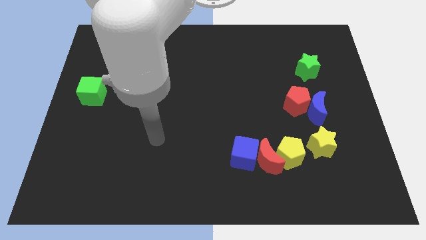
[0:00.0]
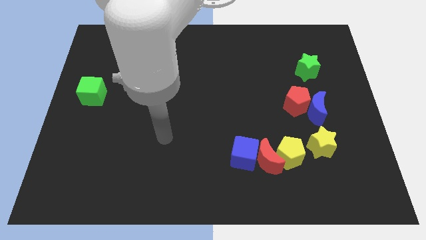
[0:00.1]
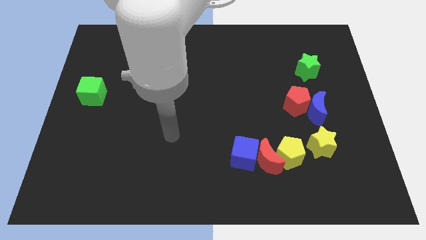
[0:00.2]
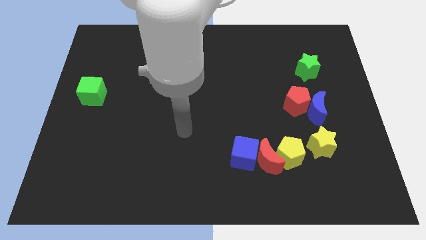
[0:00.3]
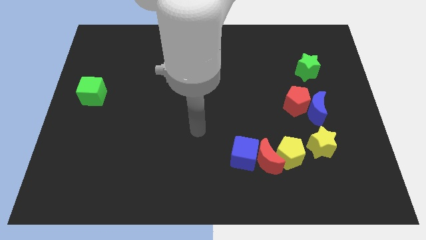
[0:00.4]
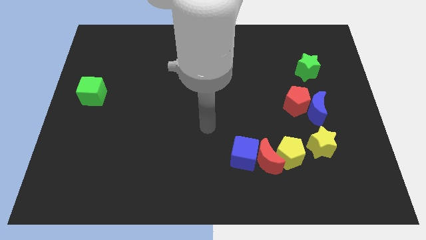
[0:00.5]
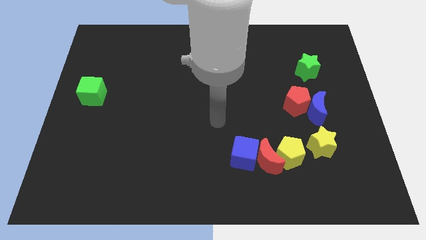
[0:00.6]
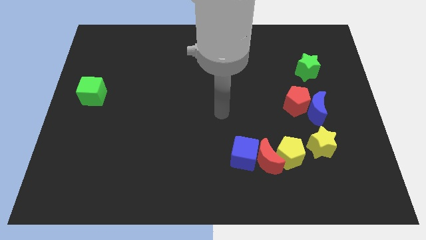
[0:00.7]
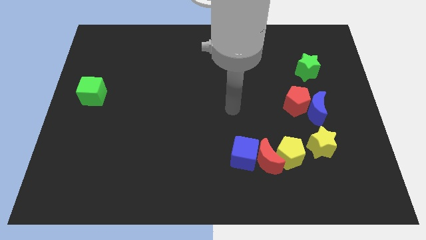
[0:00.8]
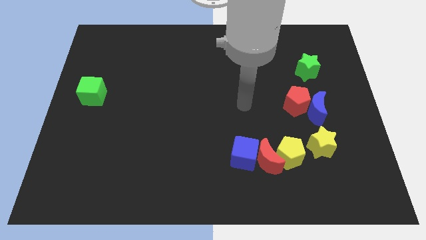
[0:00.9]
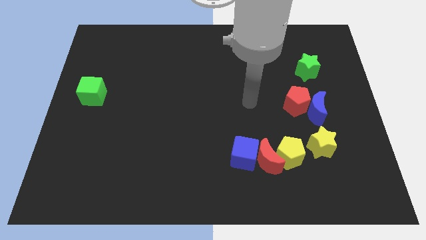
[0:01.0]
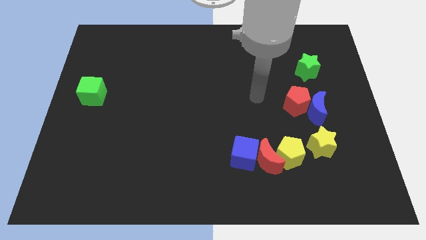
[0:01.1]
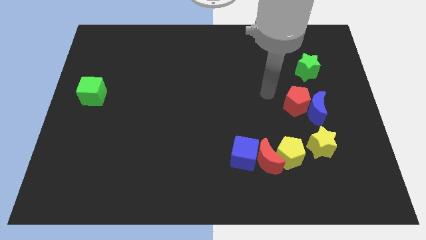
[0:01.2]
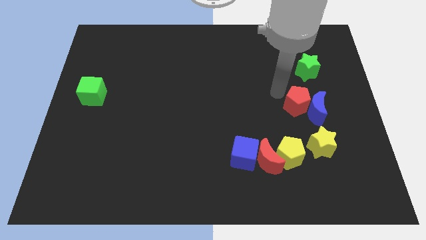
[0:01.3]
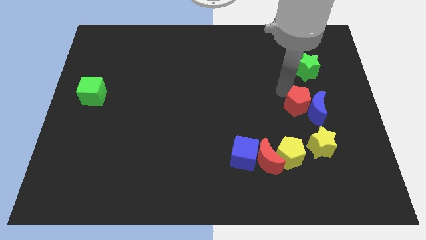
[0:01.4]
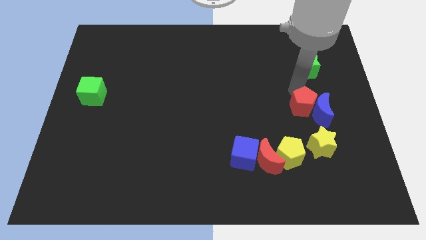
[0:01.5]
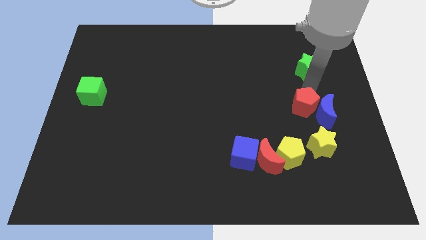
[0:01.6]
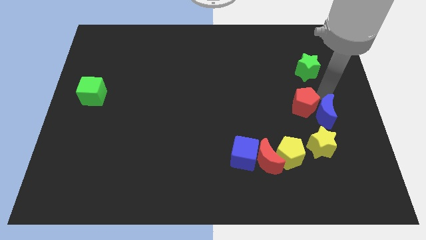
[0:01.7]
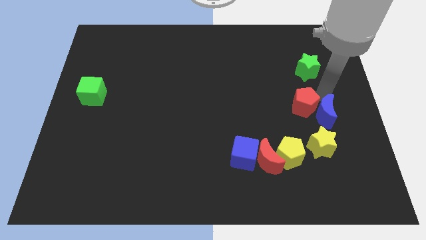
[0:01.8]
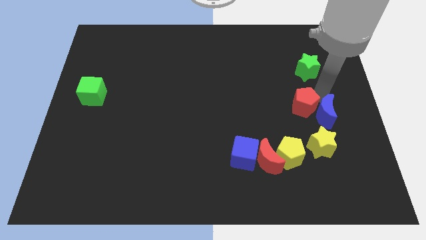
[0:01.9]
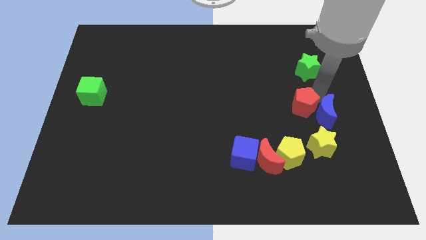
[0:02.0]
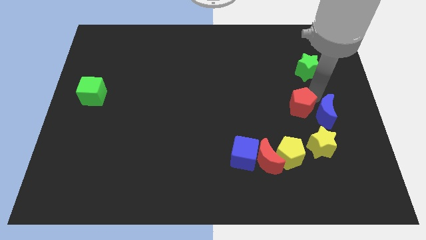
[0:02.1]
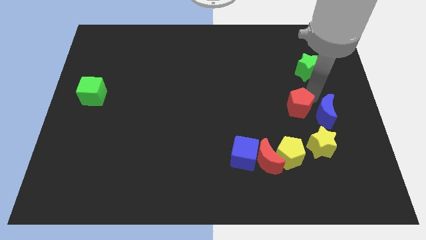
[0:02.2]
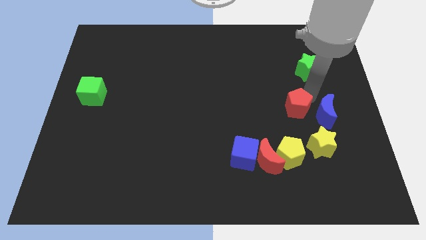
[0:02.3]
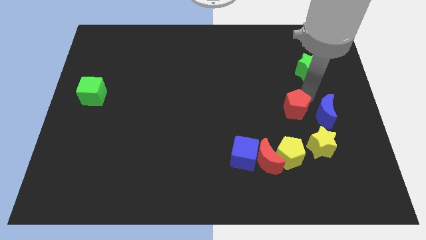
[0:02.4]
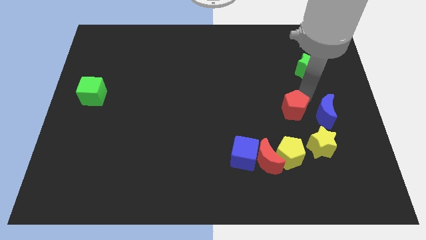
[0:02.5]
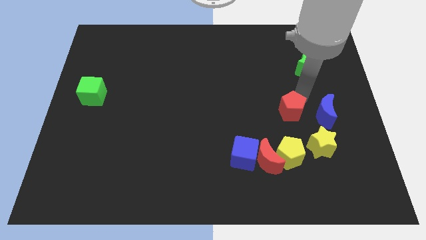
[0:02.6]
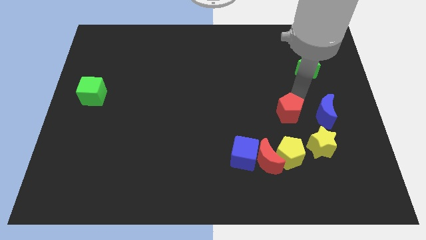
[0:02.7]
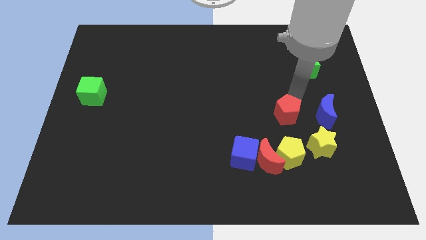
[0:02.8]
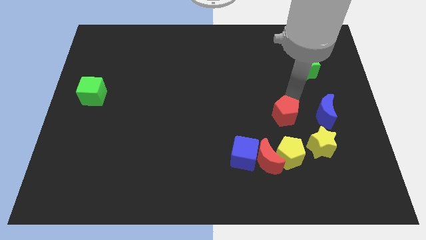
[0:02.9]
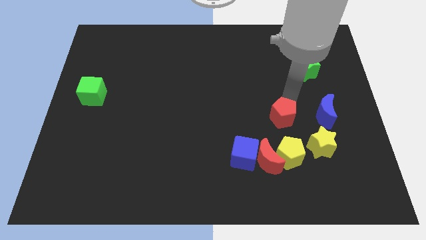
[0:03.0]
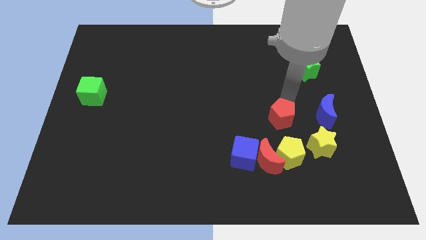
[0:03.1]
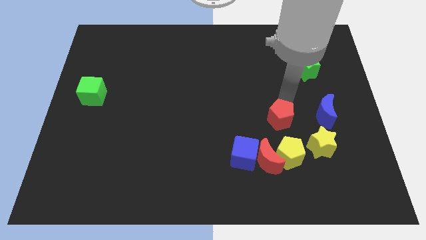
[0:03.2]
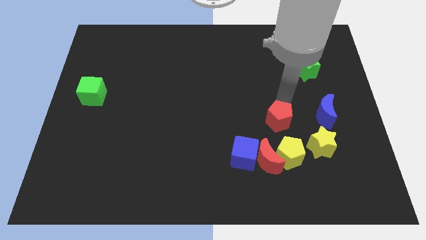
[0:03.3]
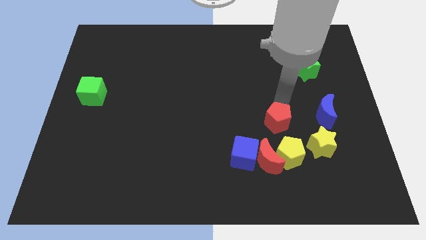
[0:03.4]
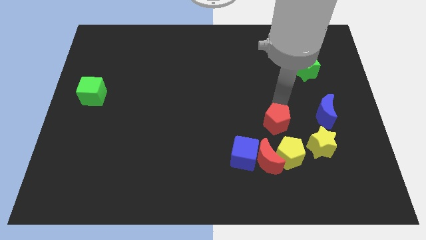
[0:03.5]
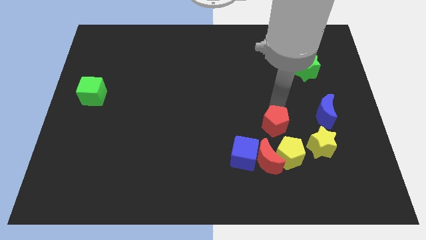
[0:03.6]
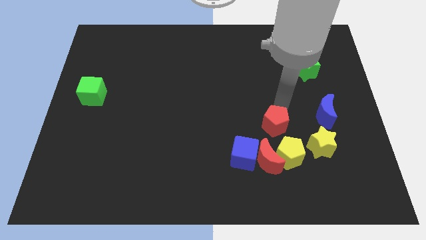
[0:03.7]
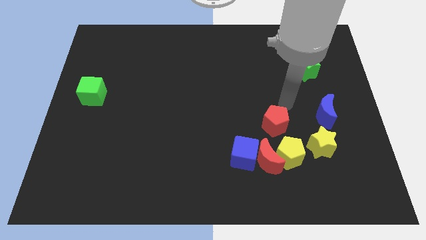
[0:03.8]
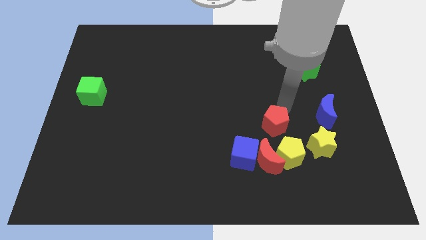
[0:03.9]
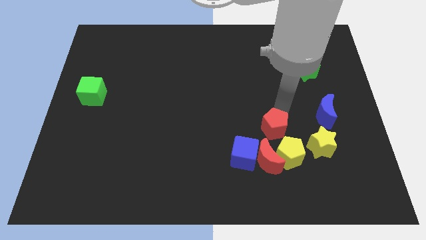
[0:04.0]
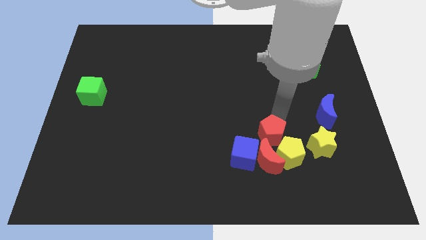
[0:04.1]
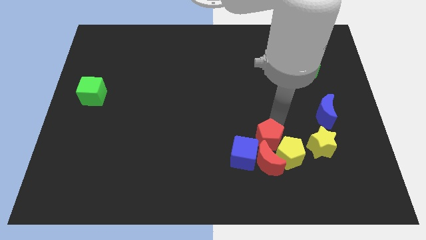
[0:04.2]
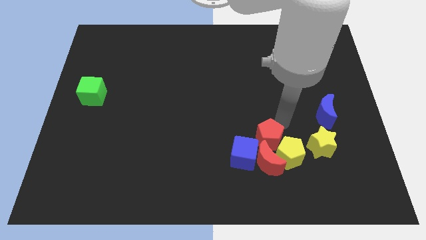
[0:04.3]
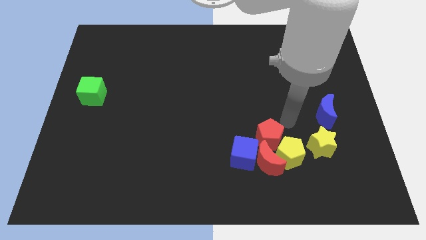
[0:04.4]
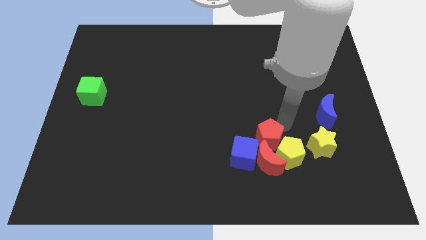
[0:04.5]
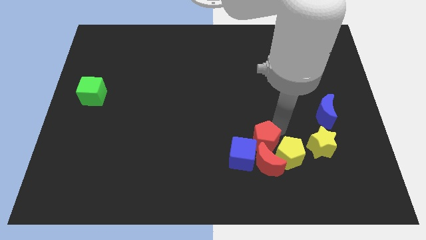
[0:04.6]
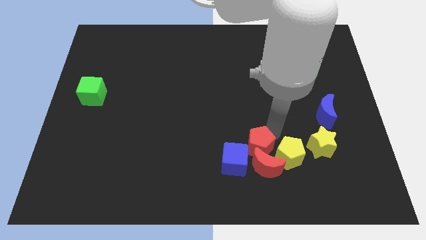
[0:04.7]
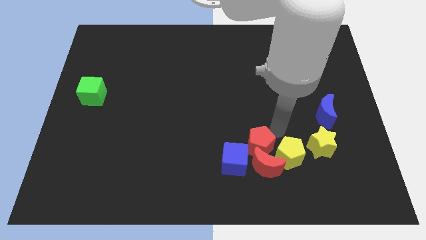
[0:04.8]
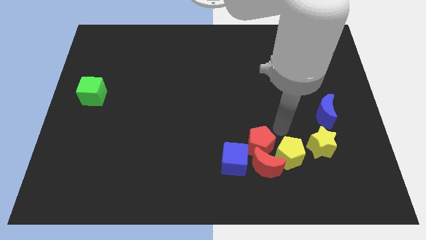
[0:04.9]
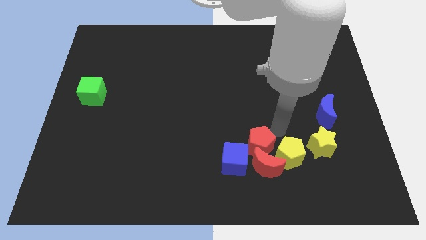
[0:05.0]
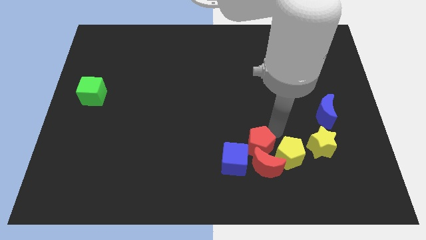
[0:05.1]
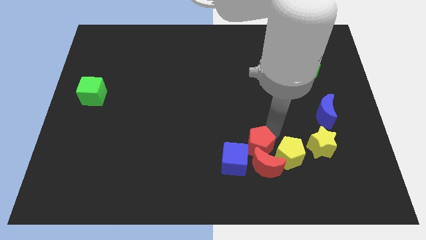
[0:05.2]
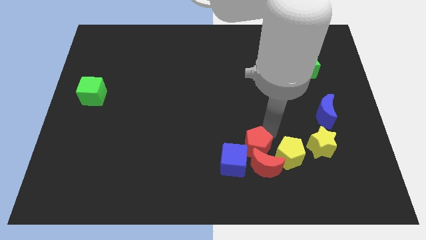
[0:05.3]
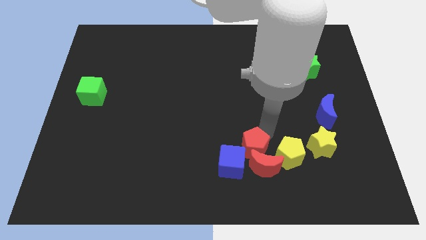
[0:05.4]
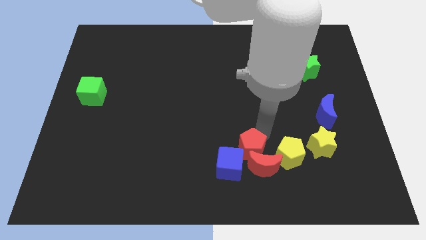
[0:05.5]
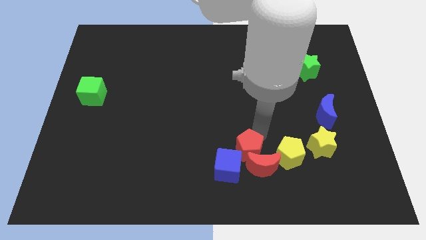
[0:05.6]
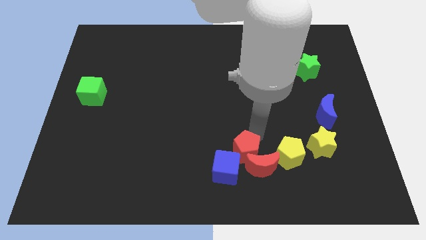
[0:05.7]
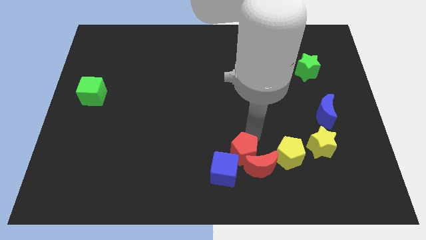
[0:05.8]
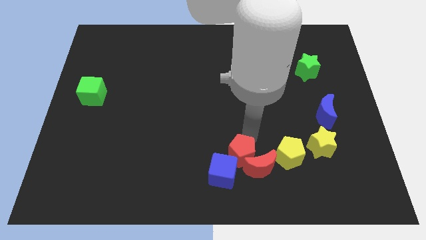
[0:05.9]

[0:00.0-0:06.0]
put the red pentagon next to the blue cube

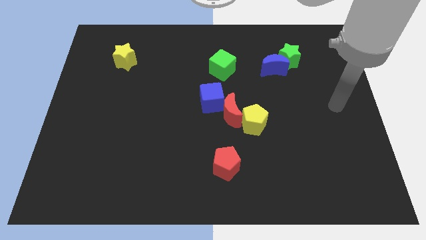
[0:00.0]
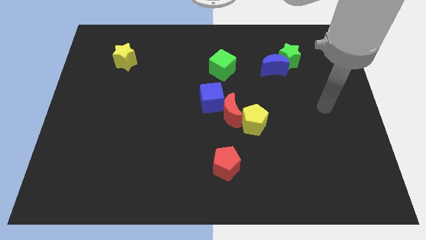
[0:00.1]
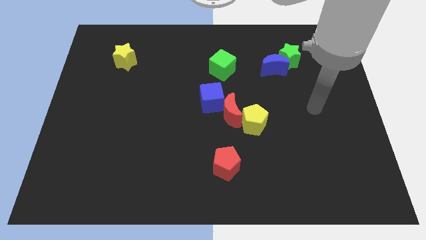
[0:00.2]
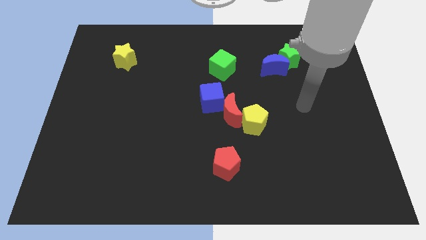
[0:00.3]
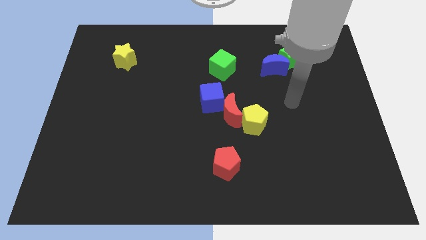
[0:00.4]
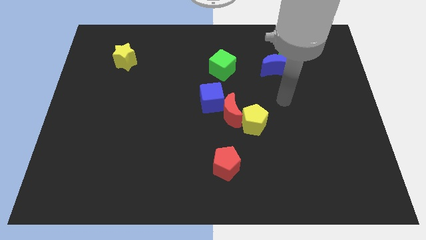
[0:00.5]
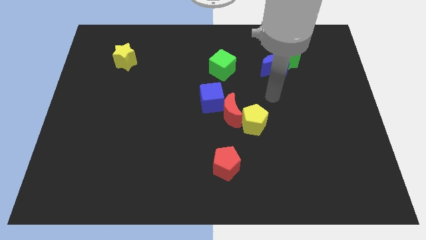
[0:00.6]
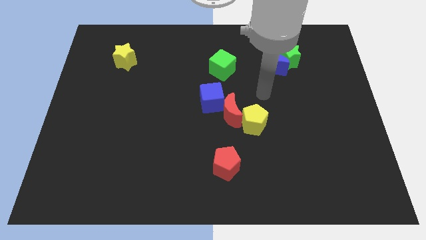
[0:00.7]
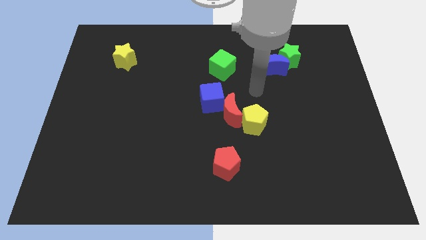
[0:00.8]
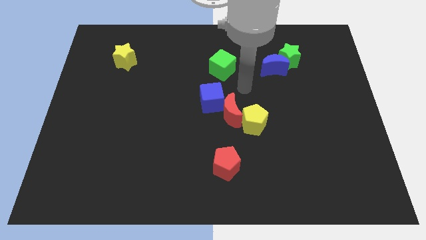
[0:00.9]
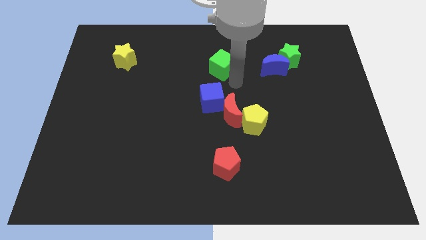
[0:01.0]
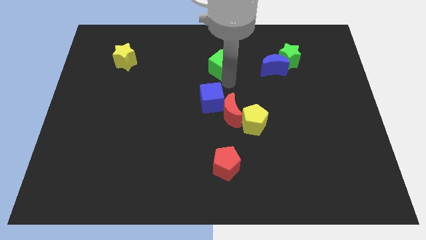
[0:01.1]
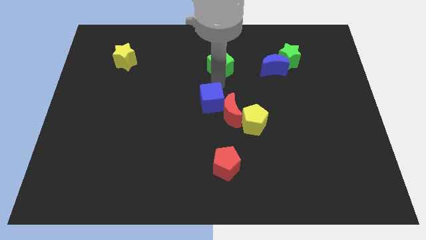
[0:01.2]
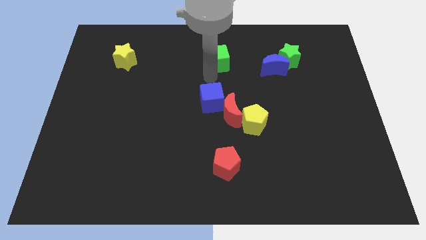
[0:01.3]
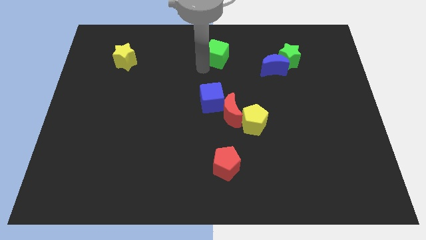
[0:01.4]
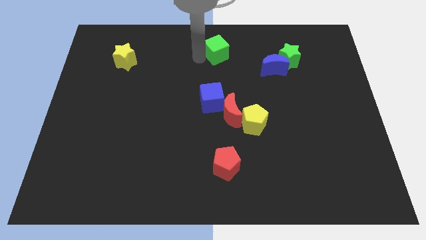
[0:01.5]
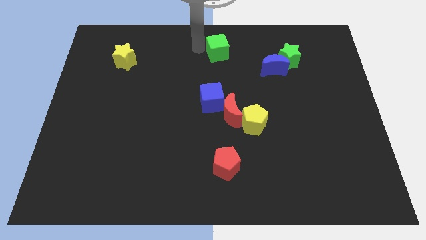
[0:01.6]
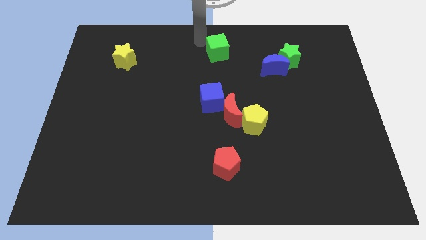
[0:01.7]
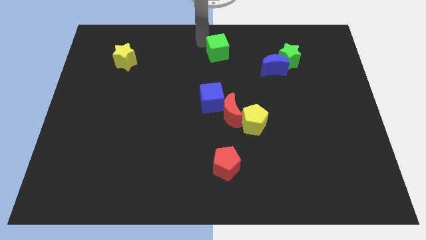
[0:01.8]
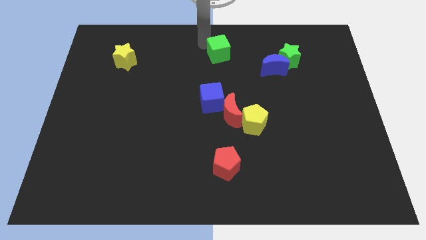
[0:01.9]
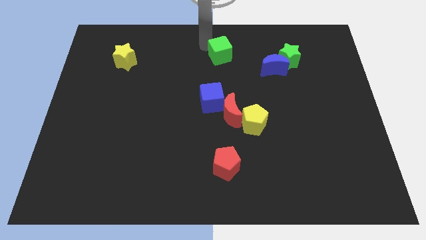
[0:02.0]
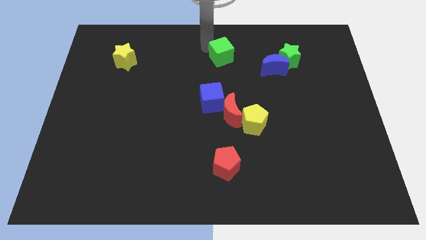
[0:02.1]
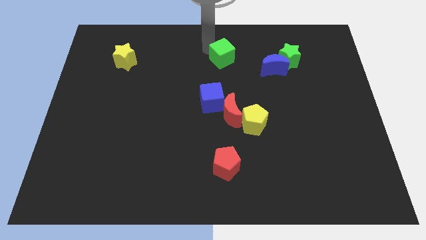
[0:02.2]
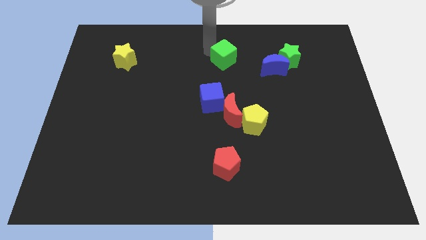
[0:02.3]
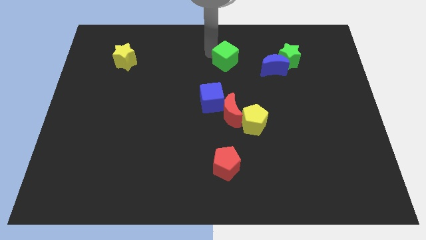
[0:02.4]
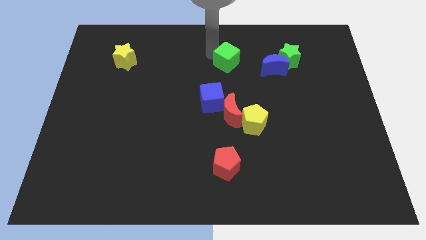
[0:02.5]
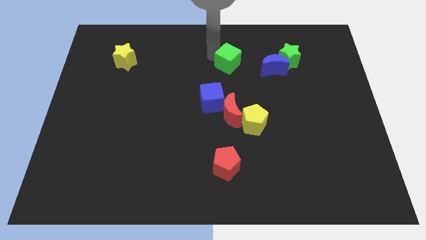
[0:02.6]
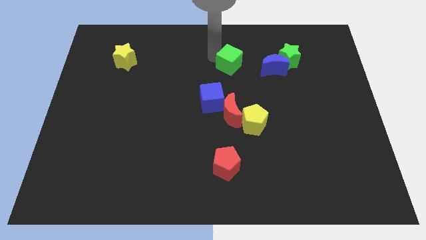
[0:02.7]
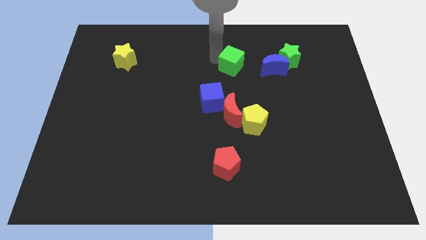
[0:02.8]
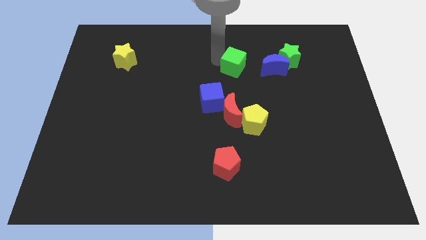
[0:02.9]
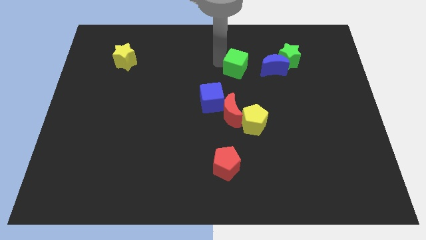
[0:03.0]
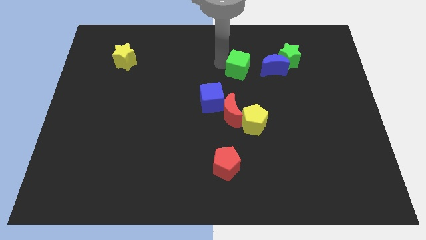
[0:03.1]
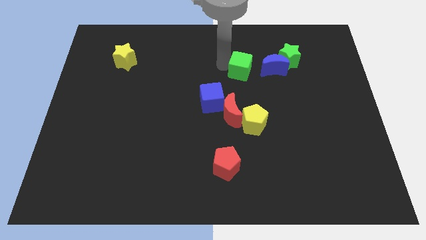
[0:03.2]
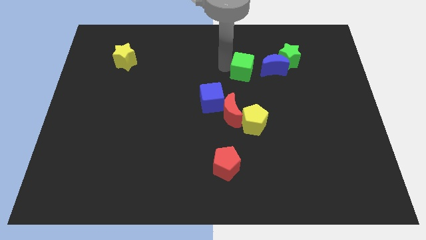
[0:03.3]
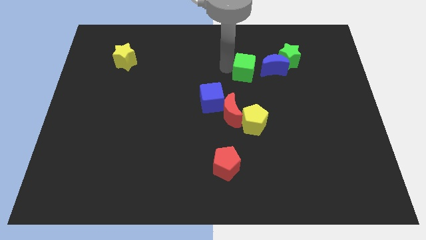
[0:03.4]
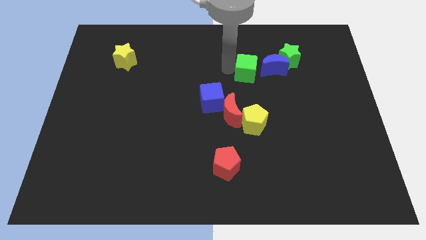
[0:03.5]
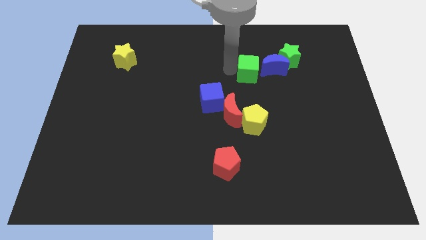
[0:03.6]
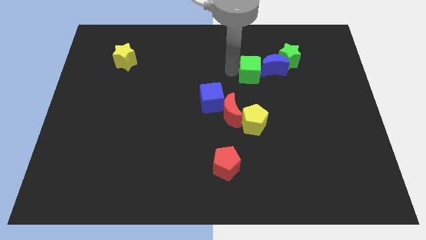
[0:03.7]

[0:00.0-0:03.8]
push the green cube to the blue moon
